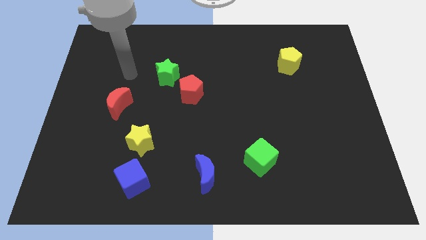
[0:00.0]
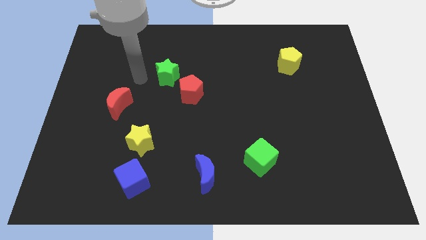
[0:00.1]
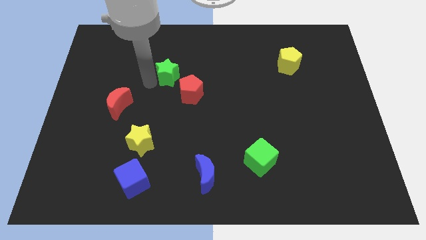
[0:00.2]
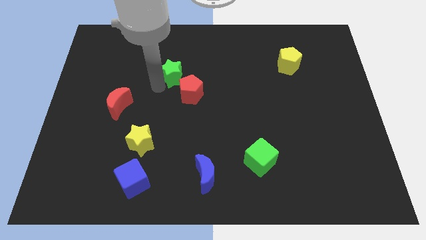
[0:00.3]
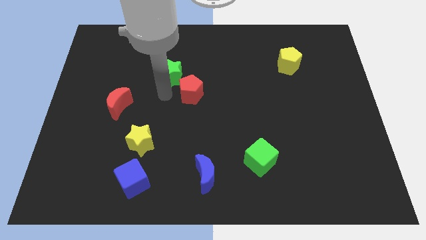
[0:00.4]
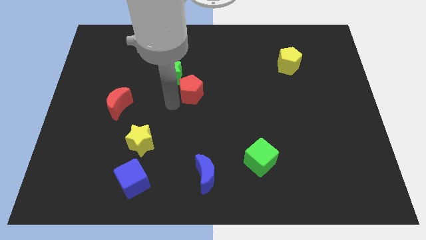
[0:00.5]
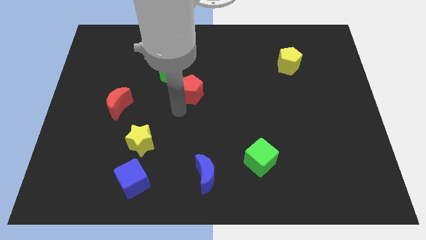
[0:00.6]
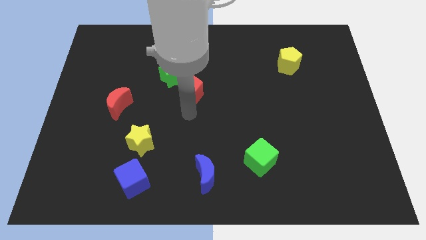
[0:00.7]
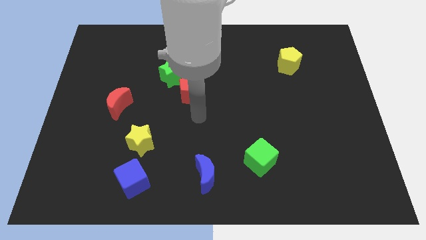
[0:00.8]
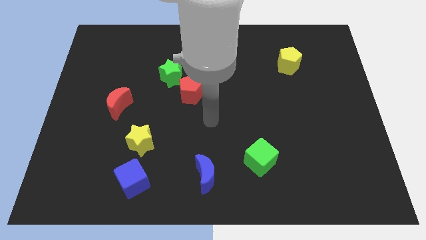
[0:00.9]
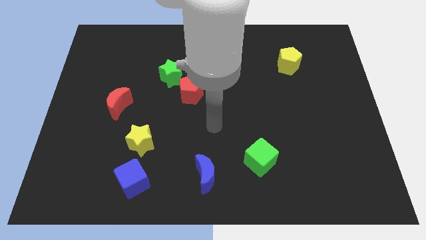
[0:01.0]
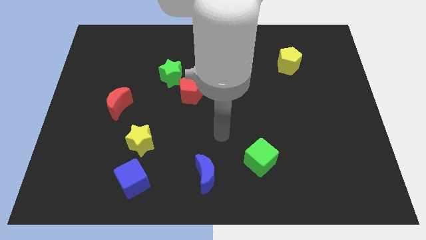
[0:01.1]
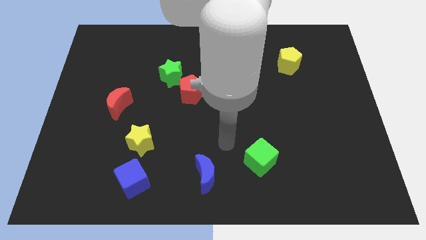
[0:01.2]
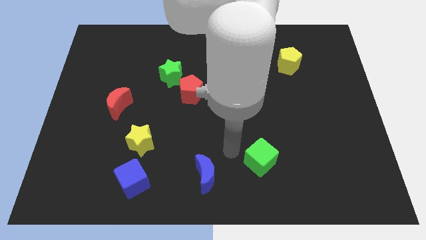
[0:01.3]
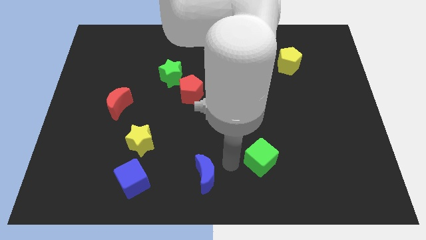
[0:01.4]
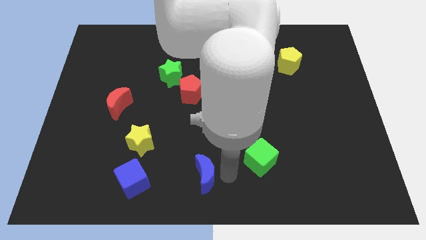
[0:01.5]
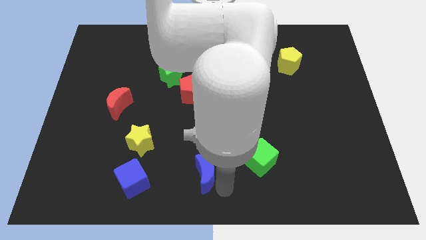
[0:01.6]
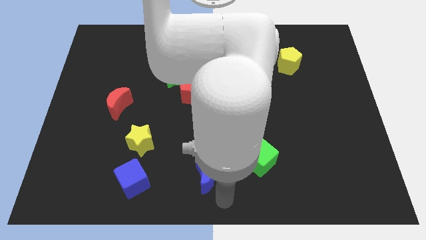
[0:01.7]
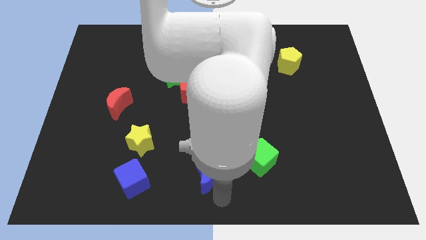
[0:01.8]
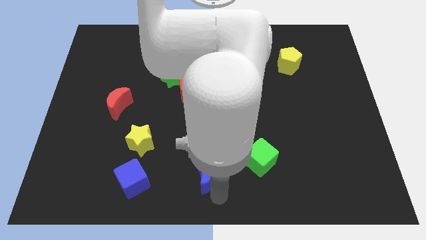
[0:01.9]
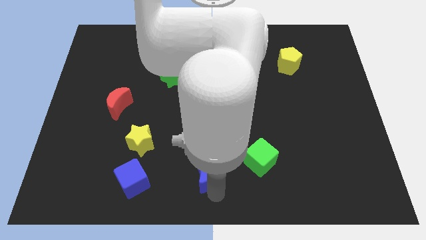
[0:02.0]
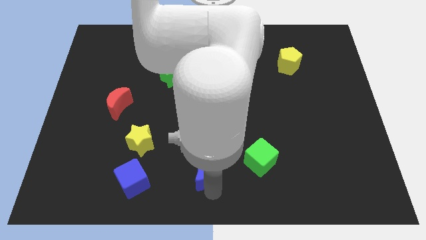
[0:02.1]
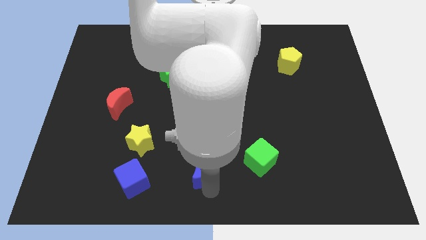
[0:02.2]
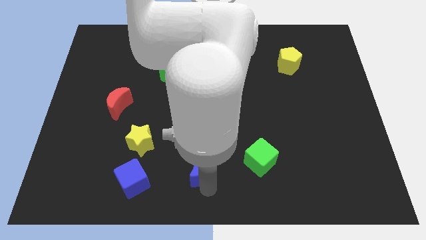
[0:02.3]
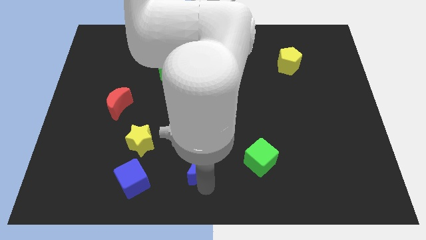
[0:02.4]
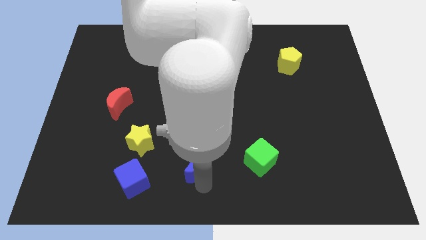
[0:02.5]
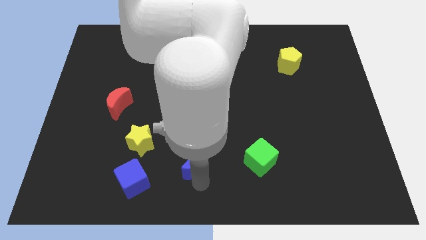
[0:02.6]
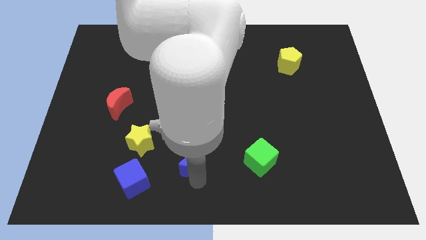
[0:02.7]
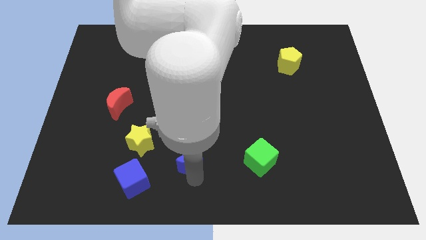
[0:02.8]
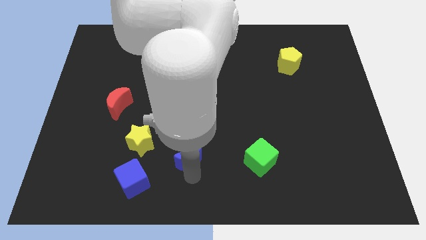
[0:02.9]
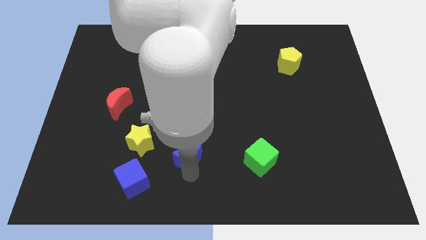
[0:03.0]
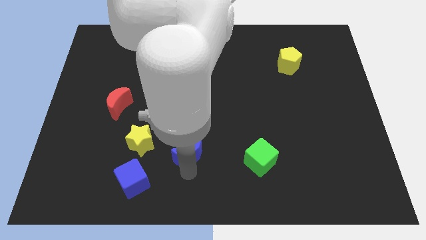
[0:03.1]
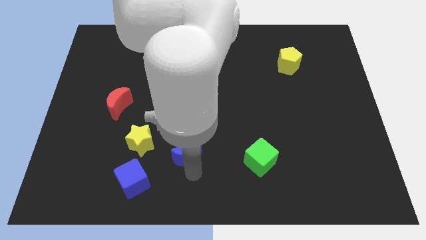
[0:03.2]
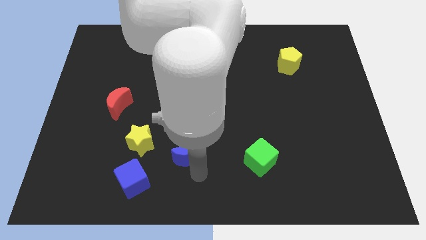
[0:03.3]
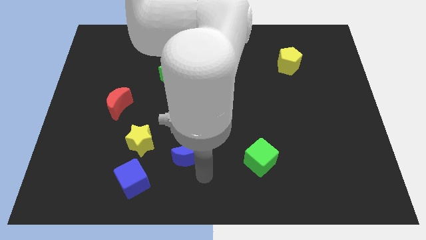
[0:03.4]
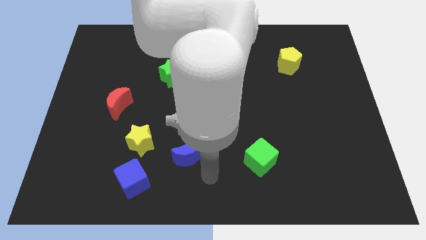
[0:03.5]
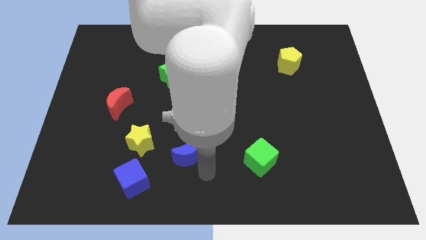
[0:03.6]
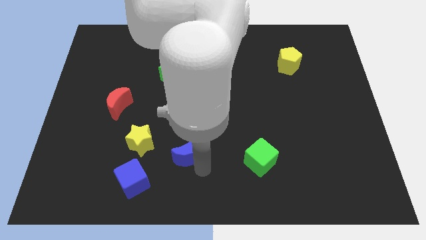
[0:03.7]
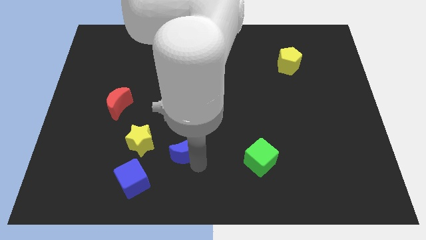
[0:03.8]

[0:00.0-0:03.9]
slightly push the blue moon upwards and to the left diagonally

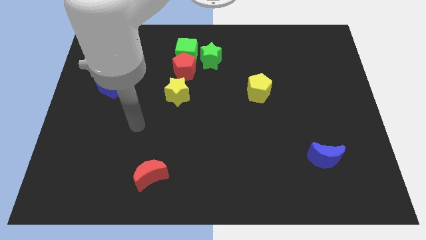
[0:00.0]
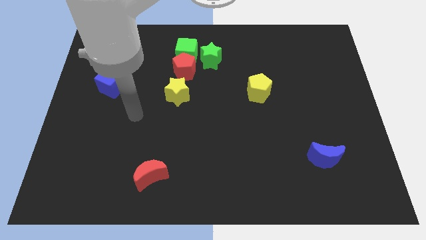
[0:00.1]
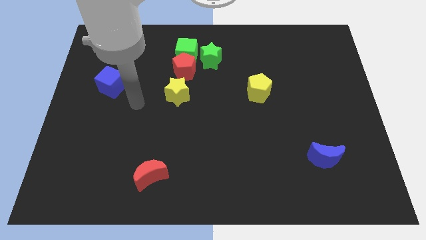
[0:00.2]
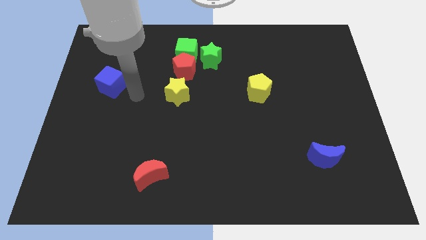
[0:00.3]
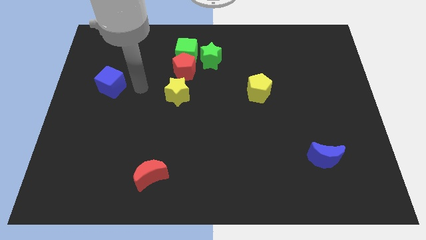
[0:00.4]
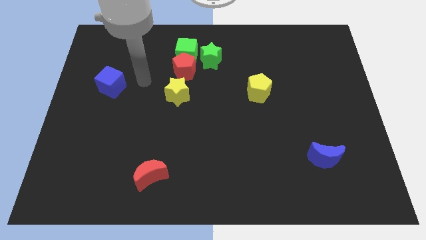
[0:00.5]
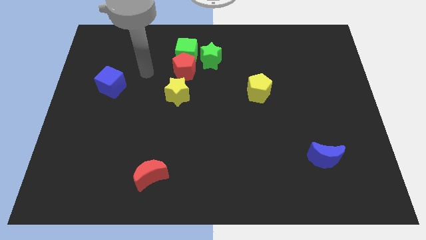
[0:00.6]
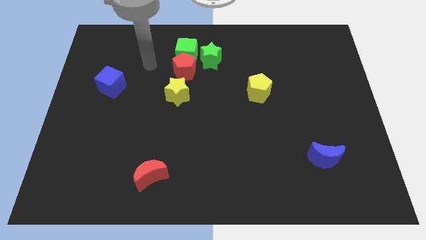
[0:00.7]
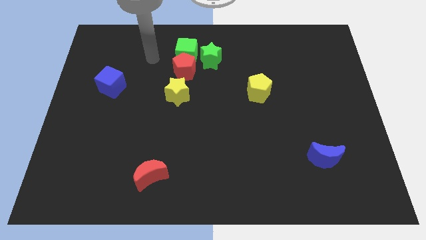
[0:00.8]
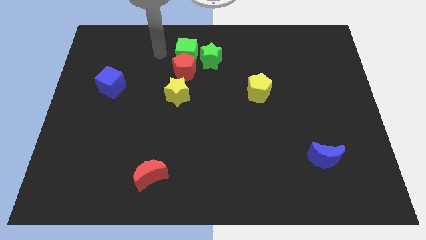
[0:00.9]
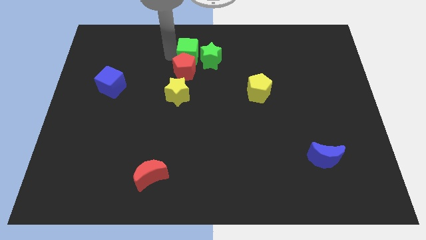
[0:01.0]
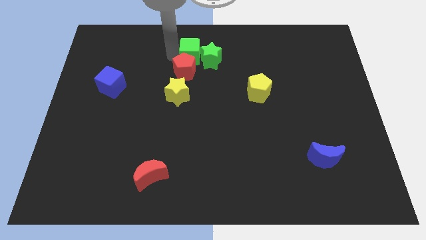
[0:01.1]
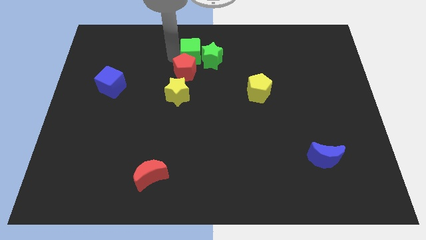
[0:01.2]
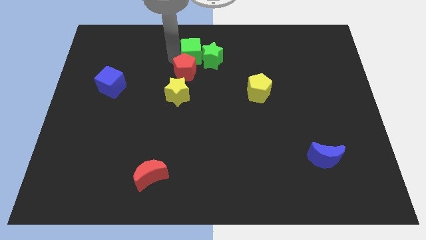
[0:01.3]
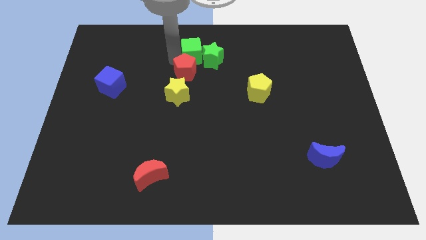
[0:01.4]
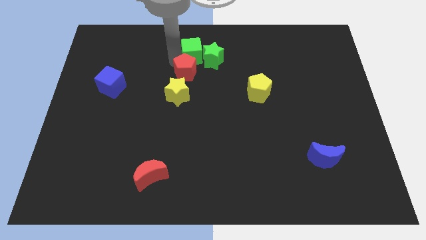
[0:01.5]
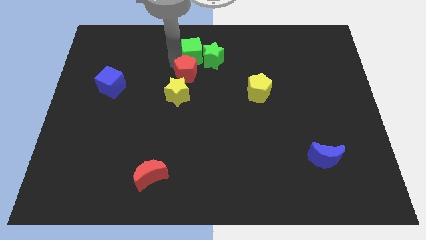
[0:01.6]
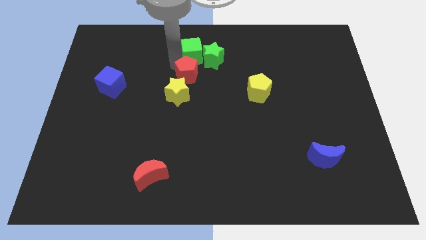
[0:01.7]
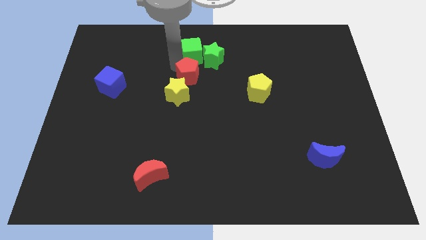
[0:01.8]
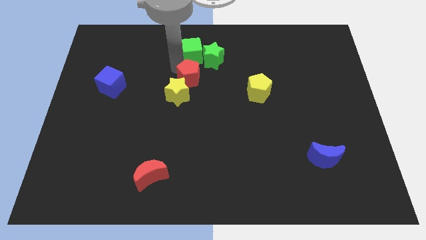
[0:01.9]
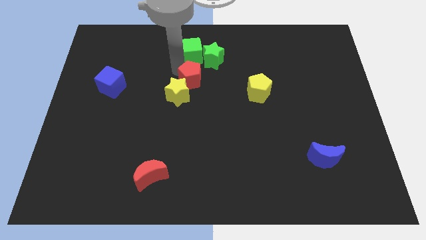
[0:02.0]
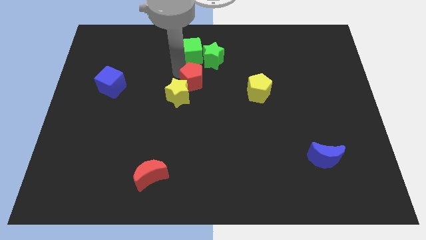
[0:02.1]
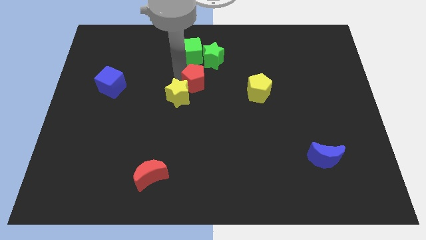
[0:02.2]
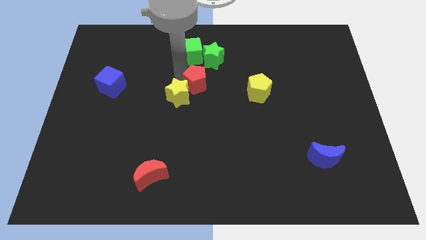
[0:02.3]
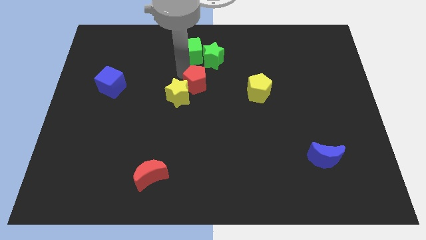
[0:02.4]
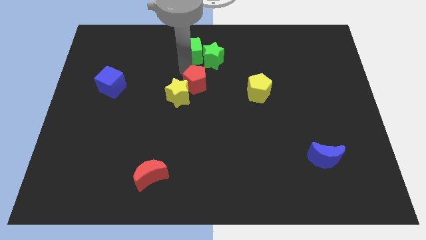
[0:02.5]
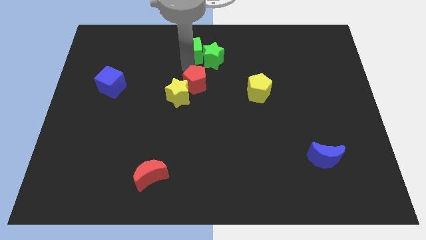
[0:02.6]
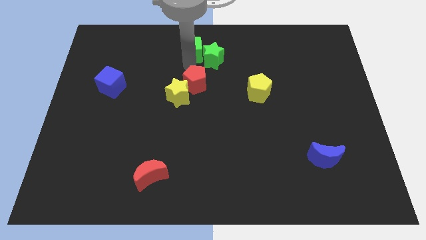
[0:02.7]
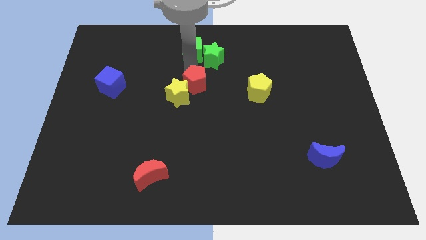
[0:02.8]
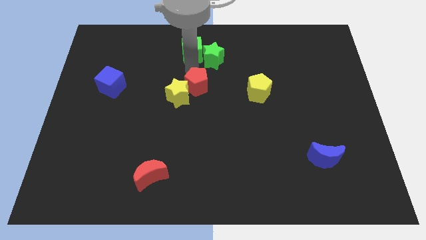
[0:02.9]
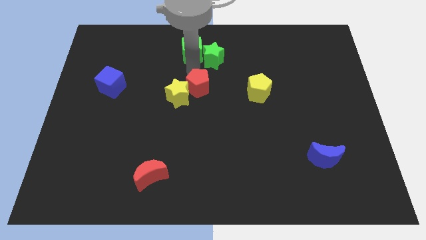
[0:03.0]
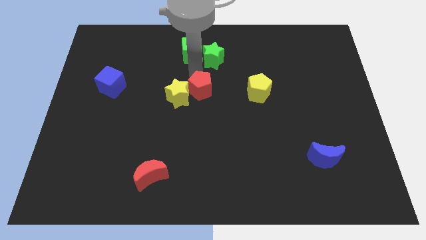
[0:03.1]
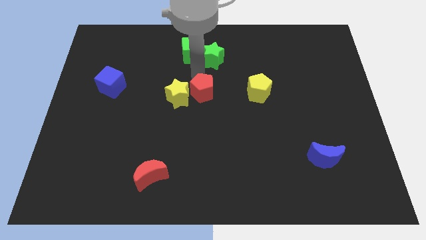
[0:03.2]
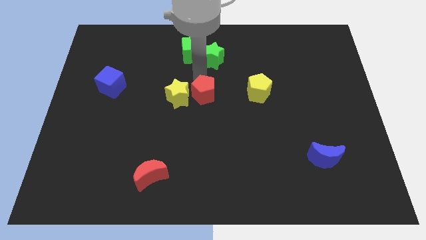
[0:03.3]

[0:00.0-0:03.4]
move the red pentagon down a bit

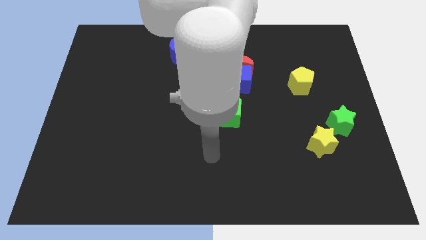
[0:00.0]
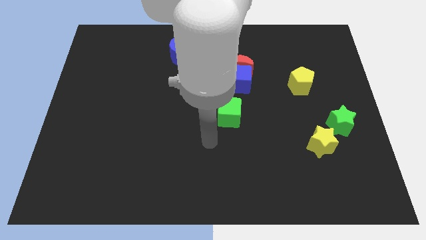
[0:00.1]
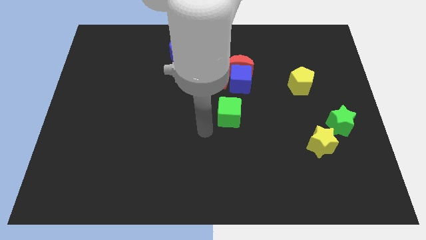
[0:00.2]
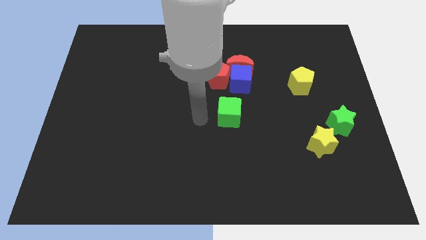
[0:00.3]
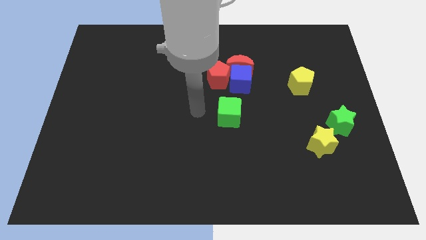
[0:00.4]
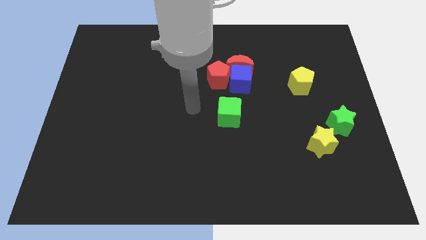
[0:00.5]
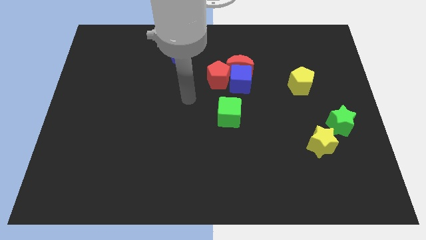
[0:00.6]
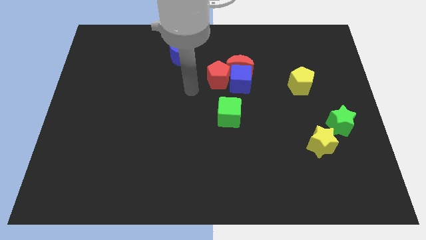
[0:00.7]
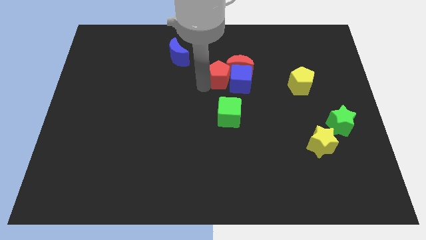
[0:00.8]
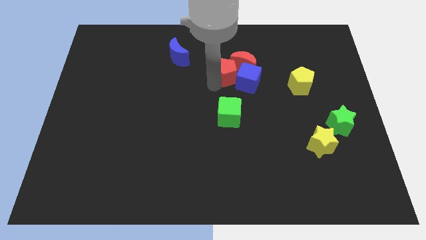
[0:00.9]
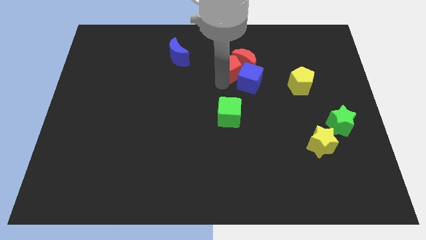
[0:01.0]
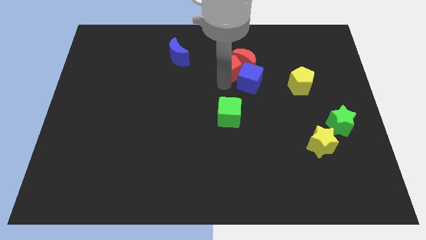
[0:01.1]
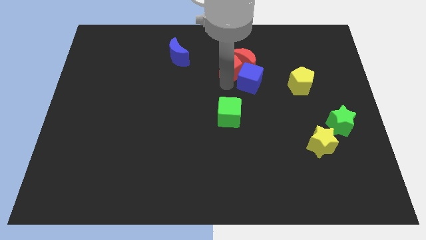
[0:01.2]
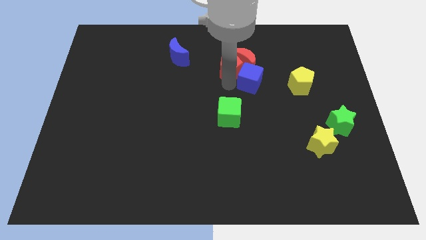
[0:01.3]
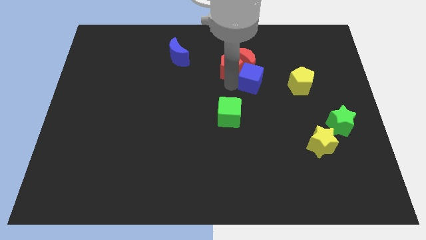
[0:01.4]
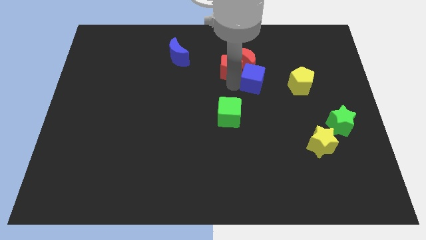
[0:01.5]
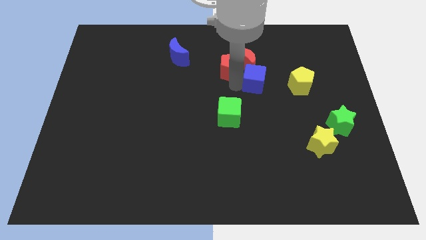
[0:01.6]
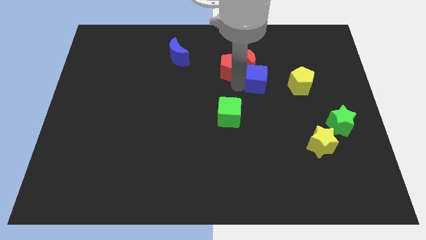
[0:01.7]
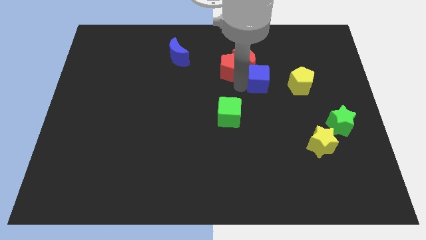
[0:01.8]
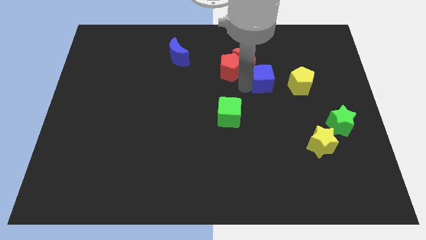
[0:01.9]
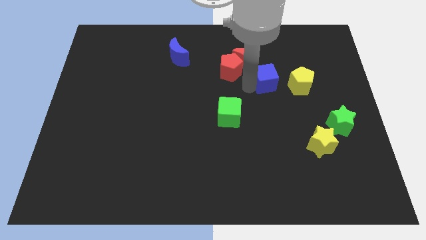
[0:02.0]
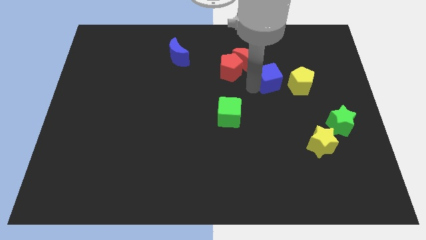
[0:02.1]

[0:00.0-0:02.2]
slide the blue cube to the right a little
